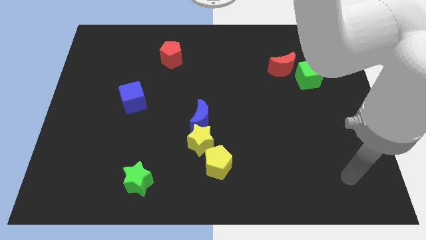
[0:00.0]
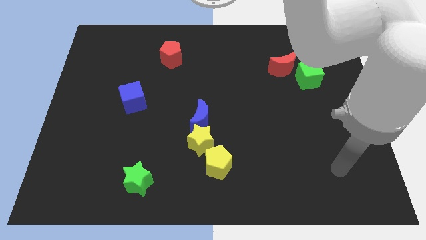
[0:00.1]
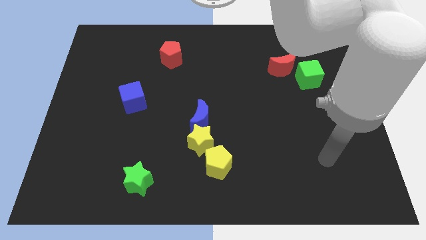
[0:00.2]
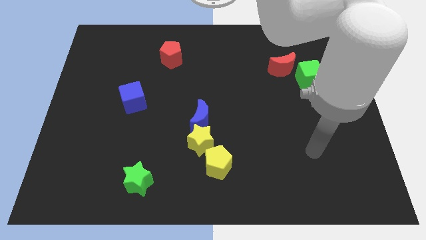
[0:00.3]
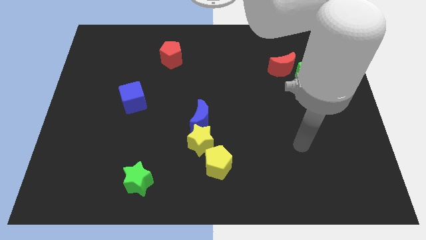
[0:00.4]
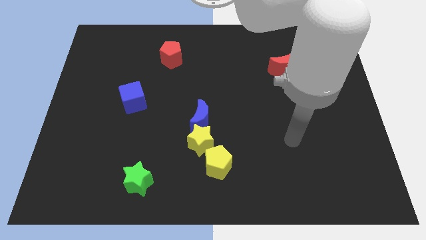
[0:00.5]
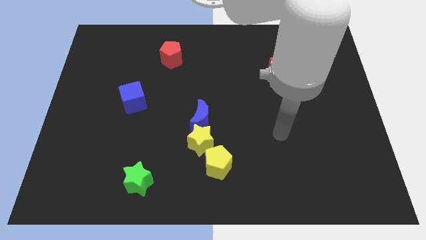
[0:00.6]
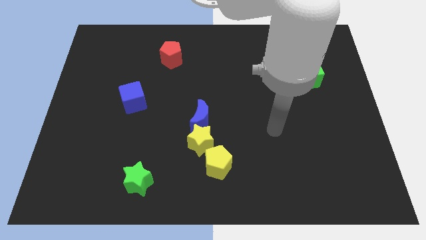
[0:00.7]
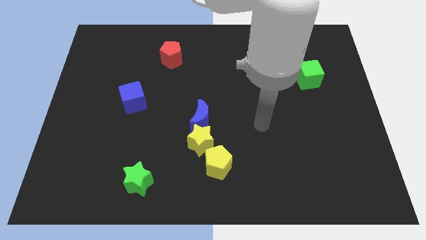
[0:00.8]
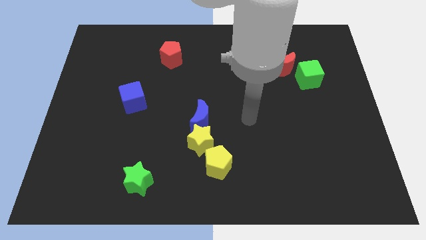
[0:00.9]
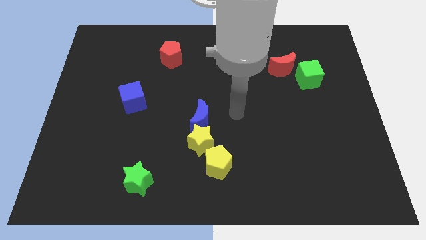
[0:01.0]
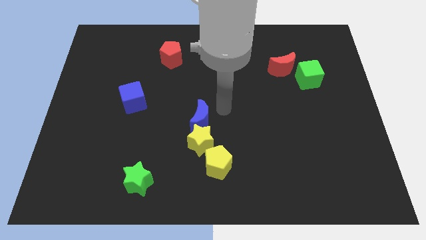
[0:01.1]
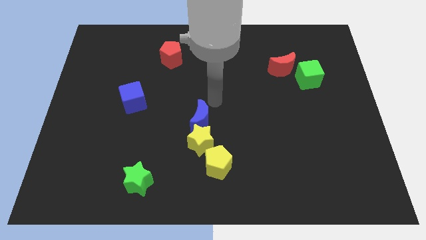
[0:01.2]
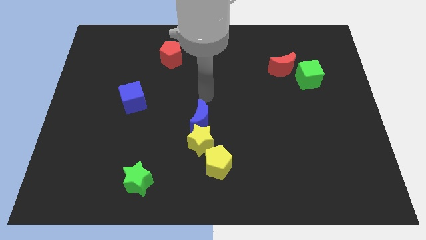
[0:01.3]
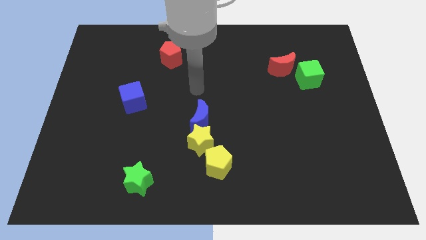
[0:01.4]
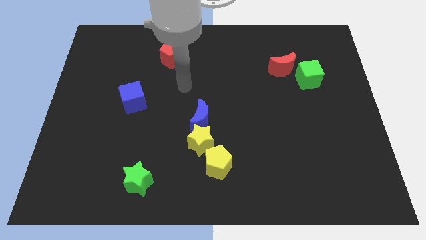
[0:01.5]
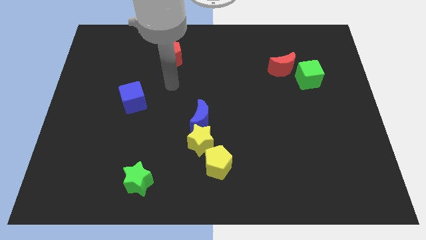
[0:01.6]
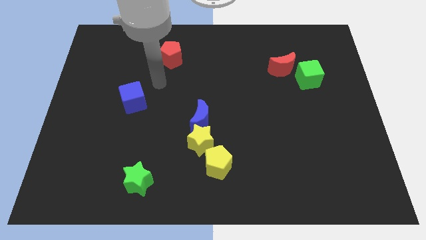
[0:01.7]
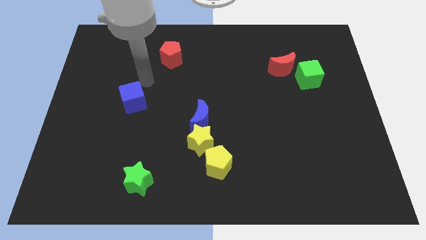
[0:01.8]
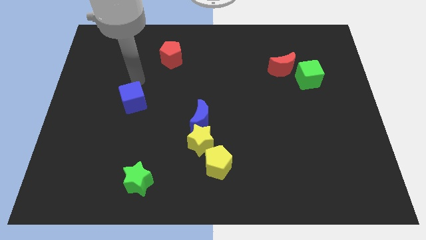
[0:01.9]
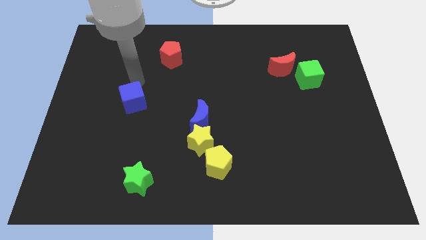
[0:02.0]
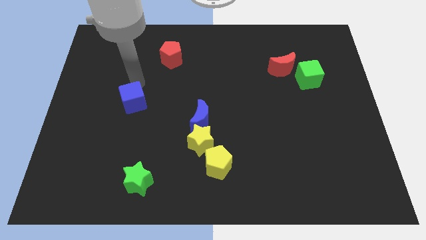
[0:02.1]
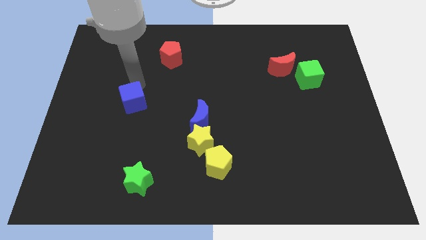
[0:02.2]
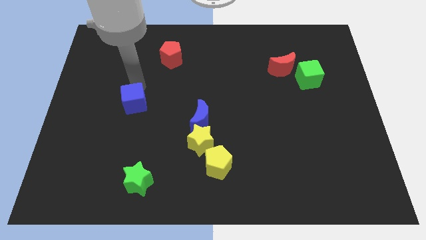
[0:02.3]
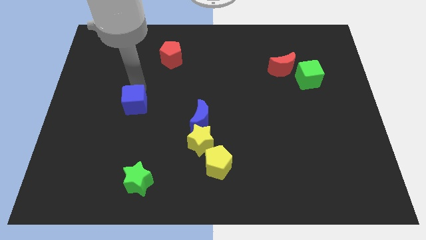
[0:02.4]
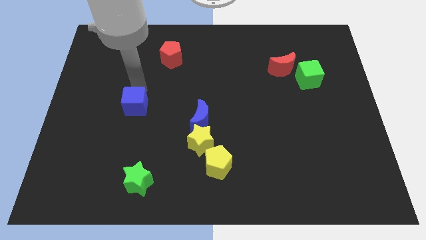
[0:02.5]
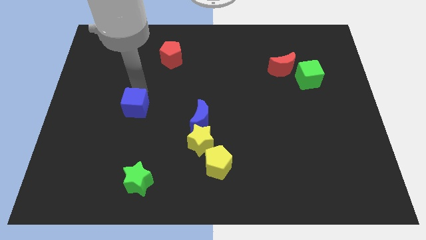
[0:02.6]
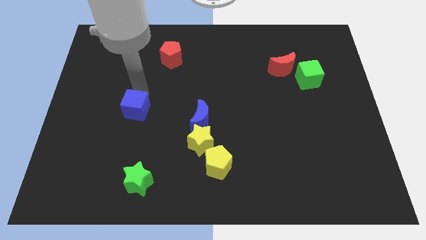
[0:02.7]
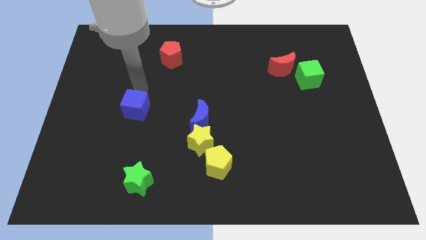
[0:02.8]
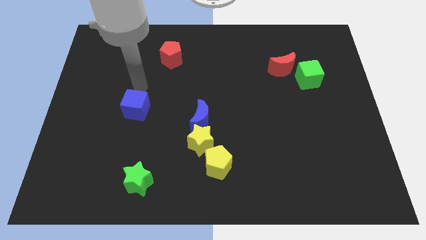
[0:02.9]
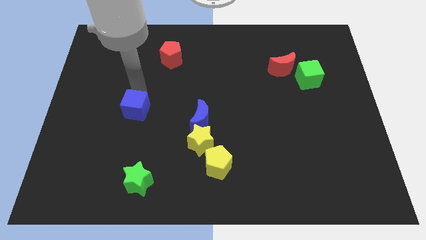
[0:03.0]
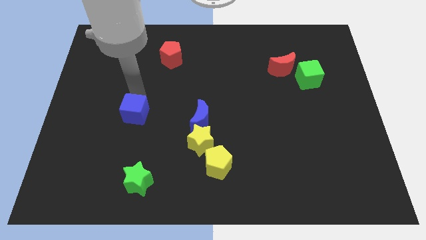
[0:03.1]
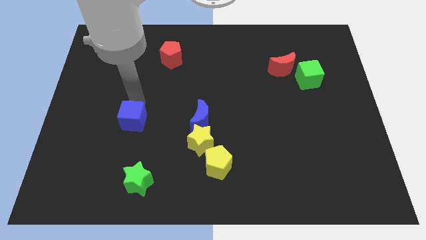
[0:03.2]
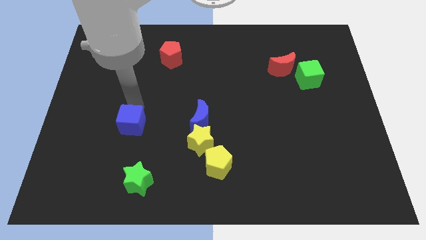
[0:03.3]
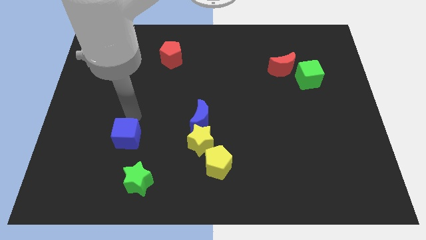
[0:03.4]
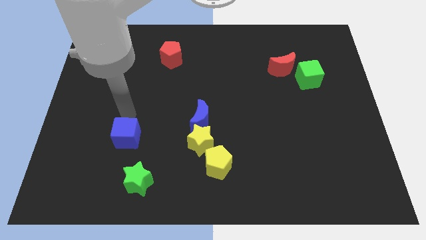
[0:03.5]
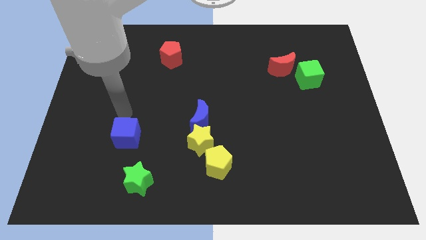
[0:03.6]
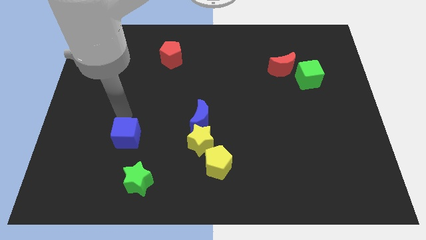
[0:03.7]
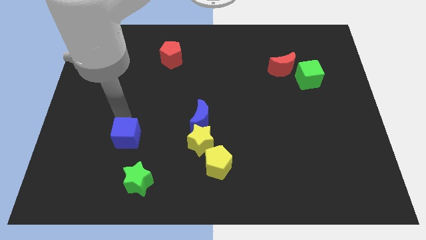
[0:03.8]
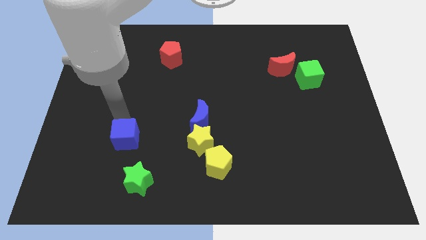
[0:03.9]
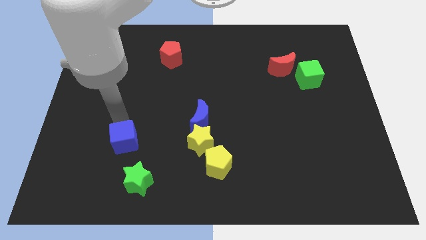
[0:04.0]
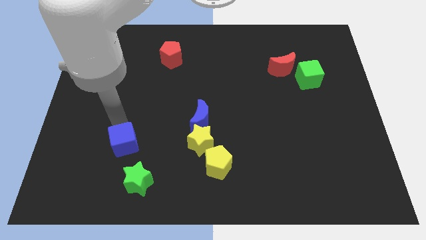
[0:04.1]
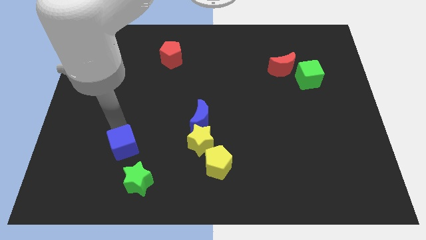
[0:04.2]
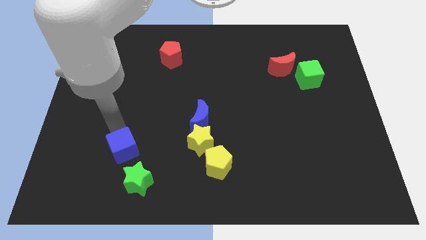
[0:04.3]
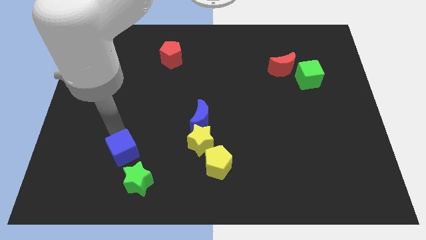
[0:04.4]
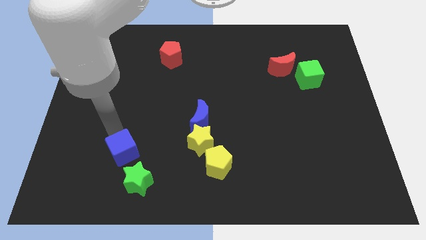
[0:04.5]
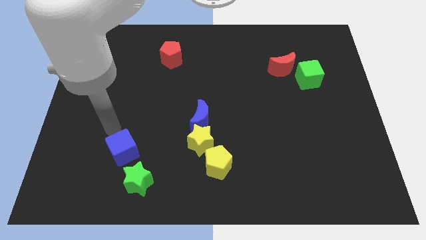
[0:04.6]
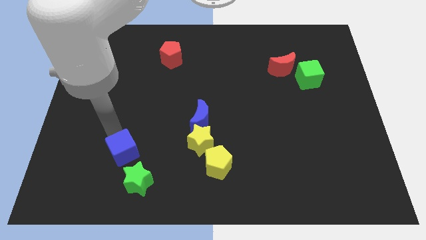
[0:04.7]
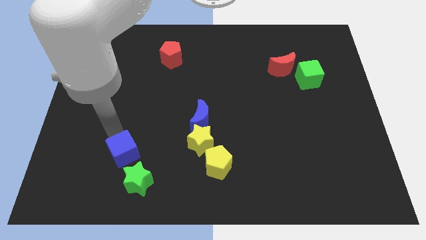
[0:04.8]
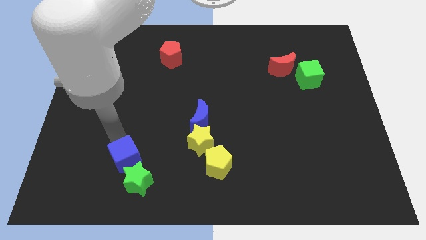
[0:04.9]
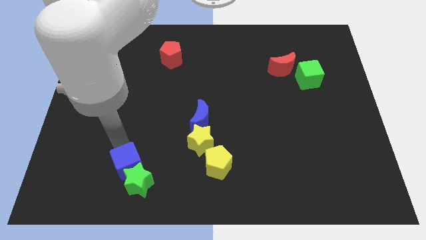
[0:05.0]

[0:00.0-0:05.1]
slide the blue cube next to the green star

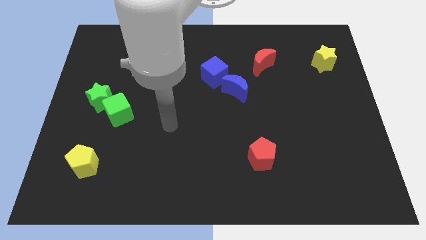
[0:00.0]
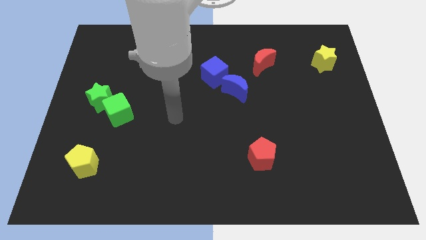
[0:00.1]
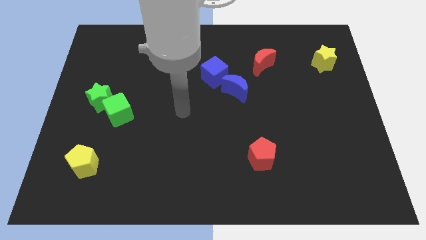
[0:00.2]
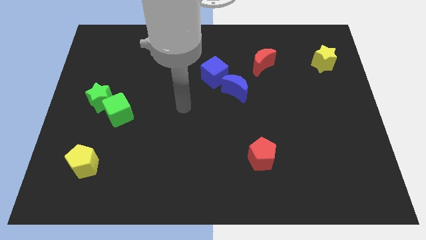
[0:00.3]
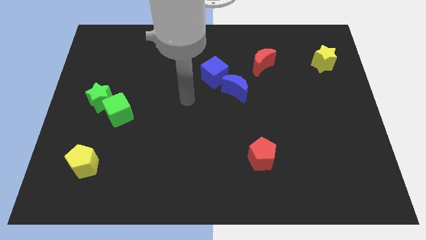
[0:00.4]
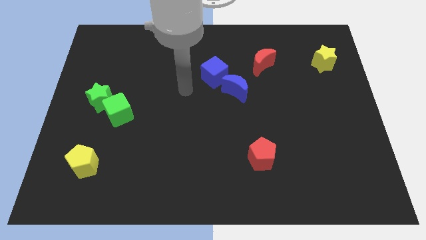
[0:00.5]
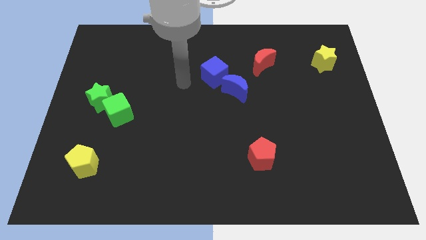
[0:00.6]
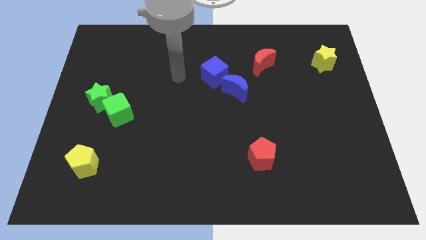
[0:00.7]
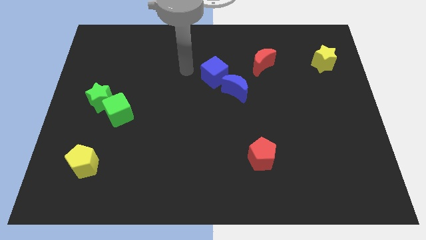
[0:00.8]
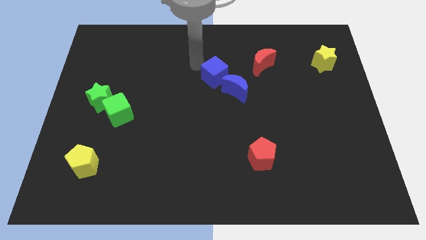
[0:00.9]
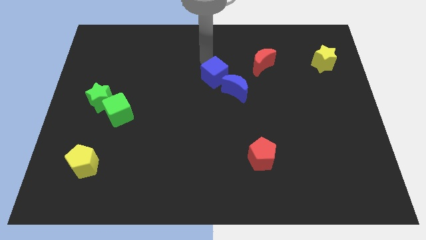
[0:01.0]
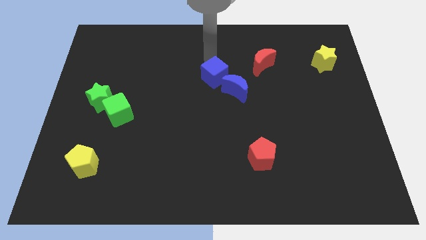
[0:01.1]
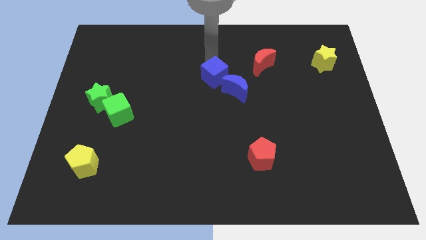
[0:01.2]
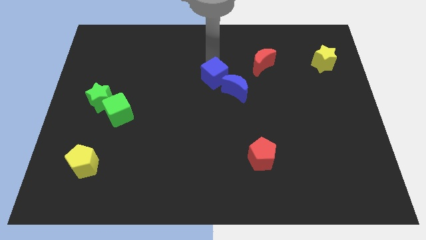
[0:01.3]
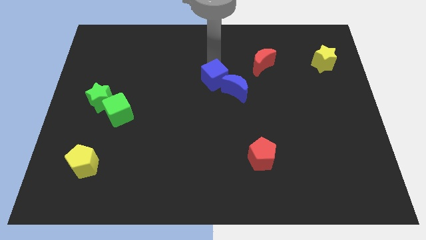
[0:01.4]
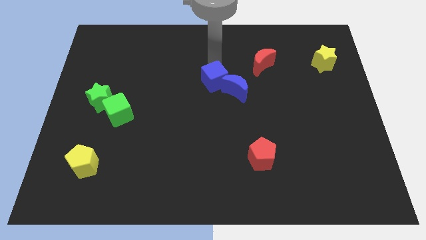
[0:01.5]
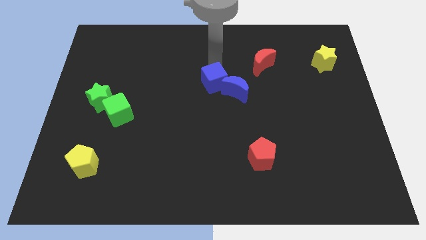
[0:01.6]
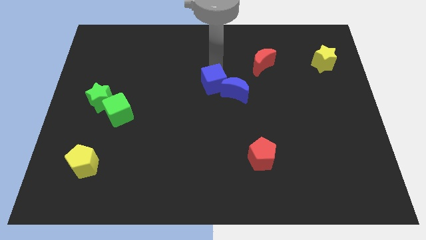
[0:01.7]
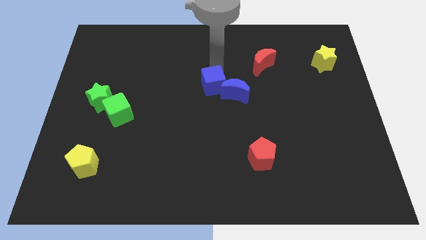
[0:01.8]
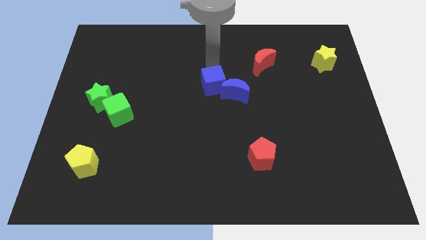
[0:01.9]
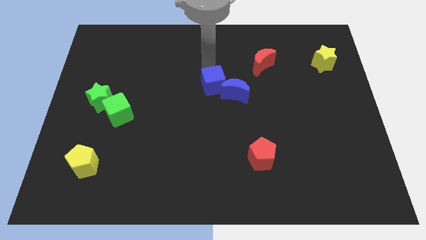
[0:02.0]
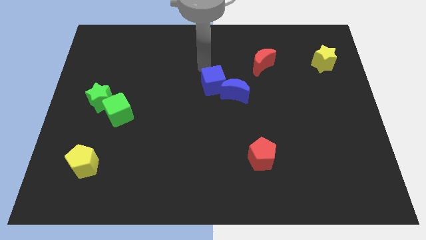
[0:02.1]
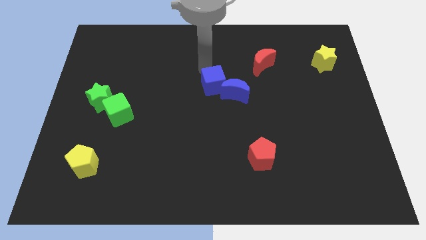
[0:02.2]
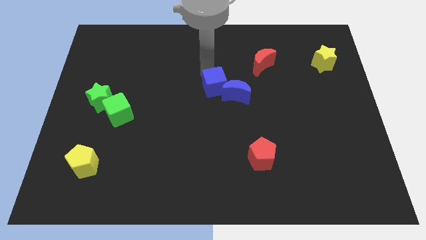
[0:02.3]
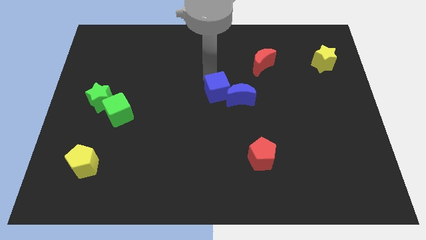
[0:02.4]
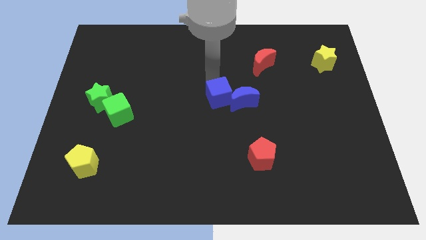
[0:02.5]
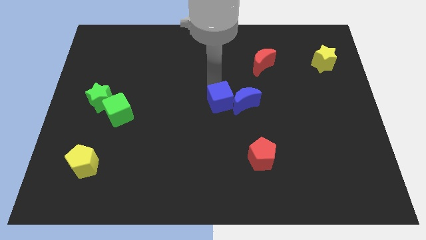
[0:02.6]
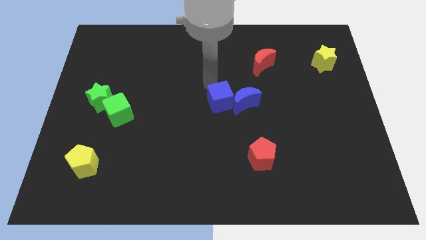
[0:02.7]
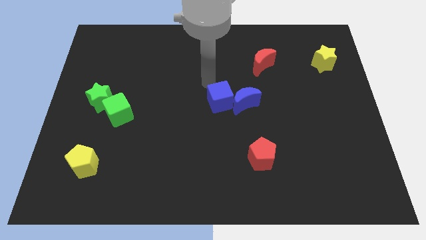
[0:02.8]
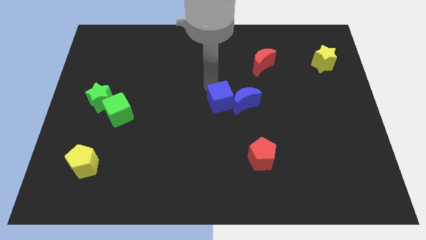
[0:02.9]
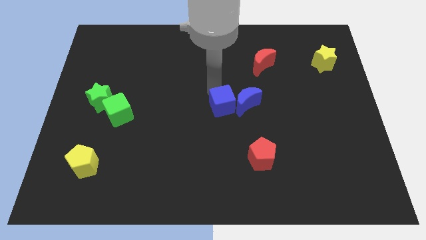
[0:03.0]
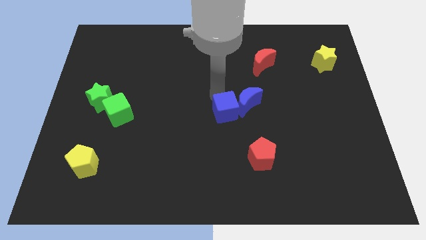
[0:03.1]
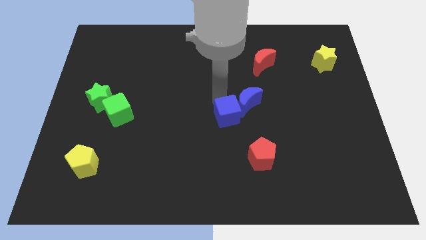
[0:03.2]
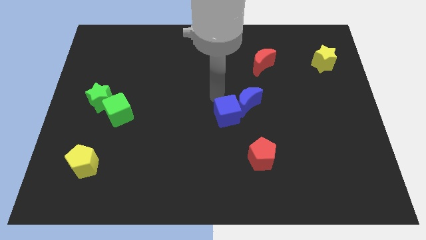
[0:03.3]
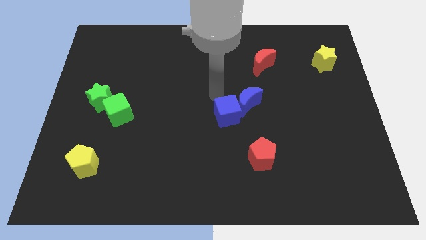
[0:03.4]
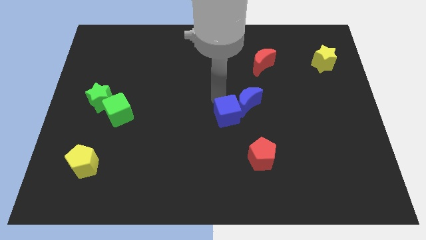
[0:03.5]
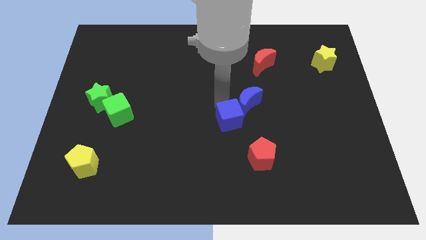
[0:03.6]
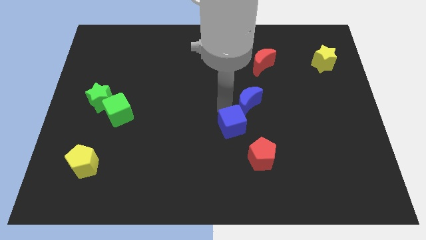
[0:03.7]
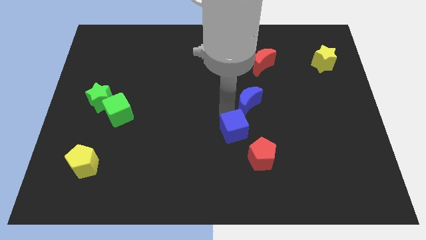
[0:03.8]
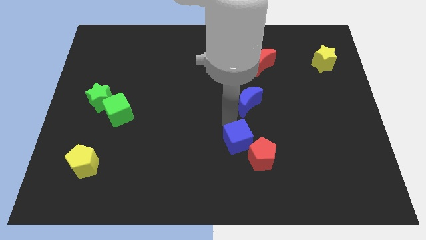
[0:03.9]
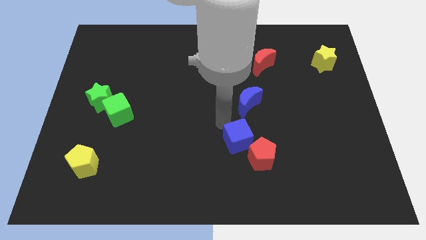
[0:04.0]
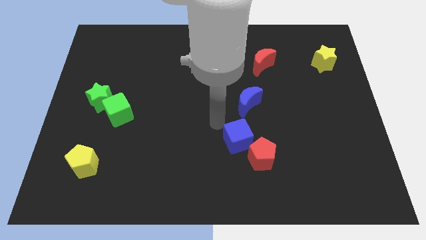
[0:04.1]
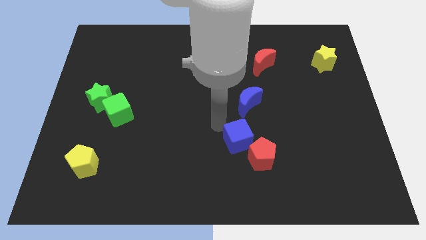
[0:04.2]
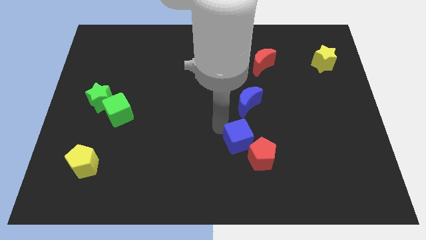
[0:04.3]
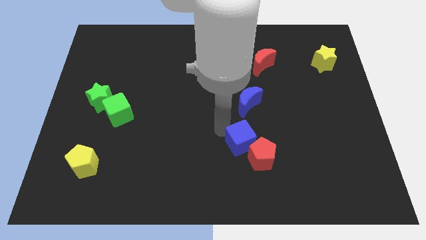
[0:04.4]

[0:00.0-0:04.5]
move the blue cube towards the red pentagon
